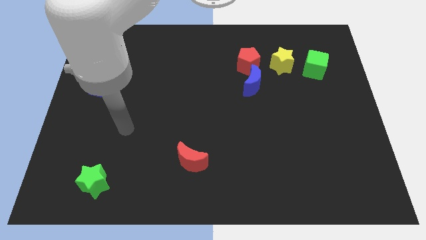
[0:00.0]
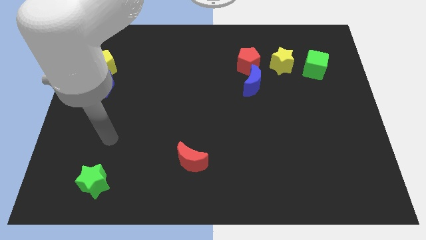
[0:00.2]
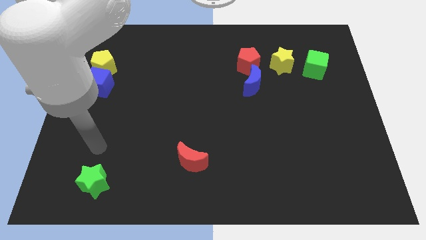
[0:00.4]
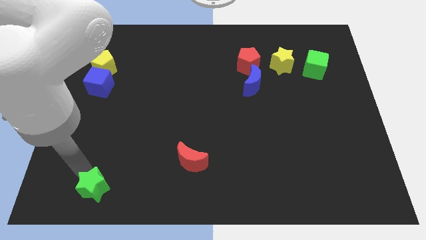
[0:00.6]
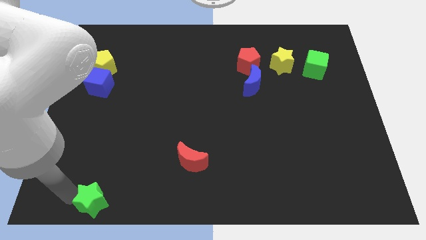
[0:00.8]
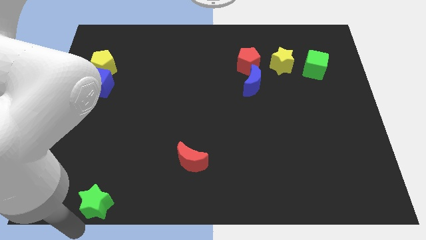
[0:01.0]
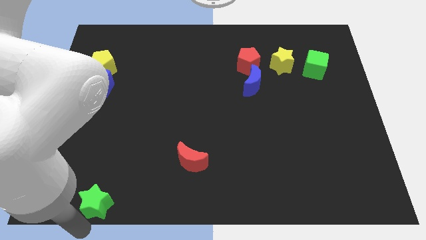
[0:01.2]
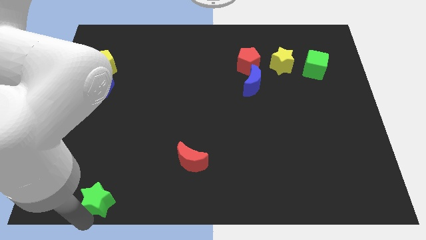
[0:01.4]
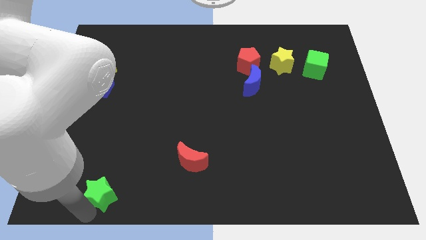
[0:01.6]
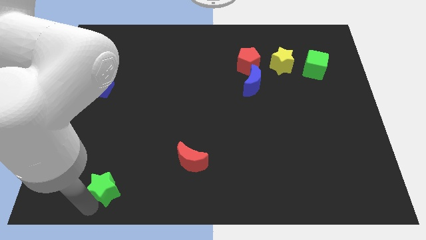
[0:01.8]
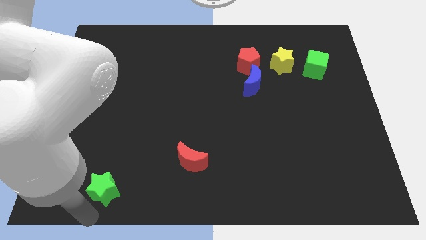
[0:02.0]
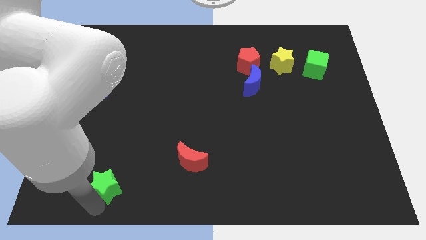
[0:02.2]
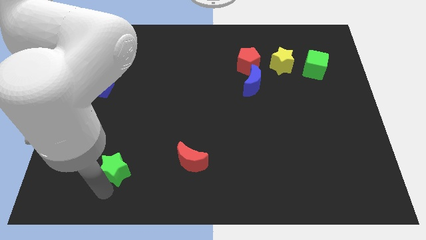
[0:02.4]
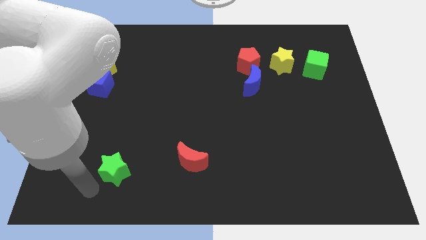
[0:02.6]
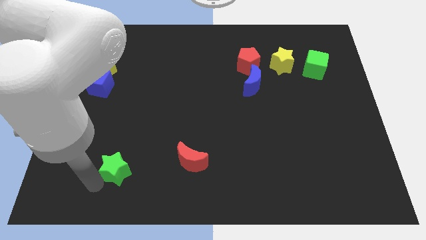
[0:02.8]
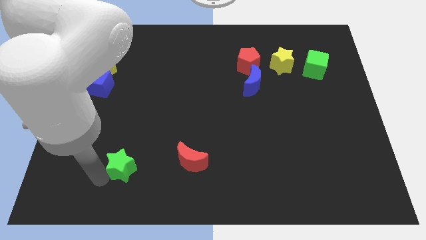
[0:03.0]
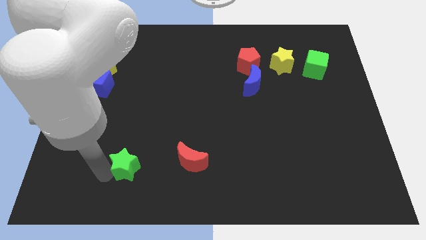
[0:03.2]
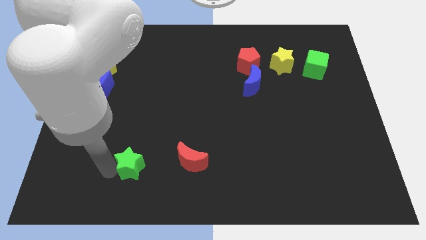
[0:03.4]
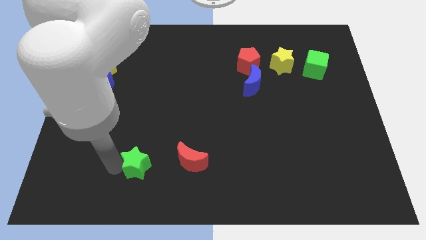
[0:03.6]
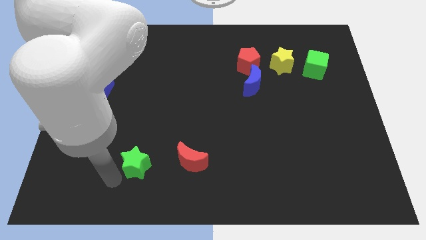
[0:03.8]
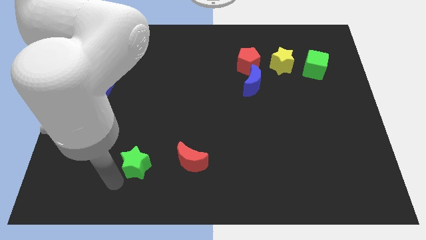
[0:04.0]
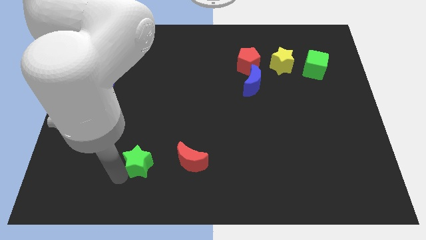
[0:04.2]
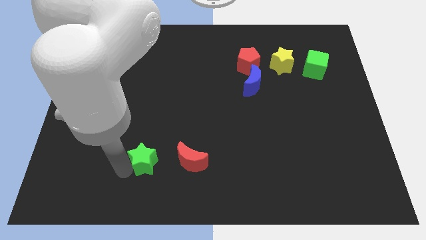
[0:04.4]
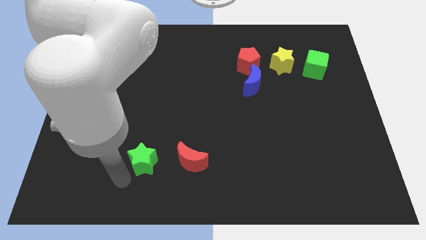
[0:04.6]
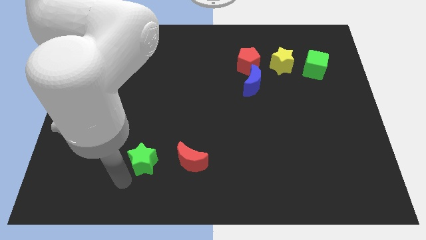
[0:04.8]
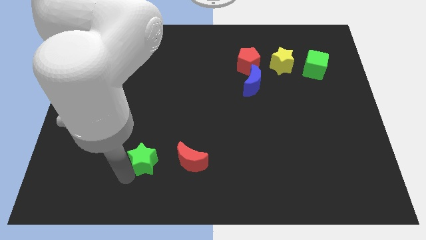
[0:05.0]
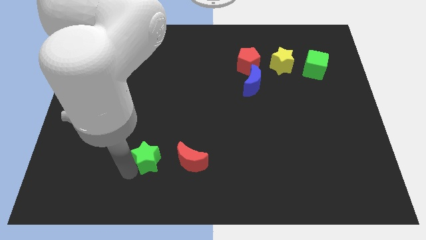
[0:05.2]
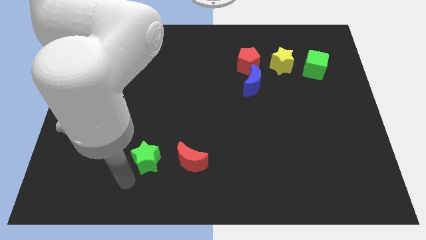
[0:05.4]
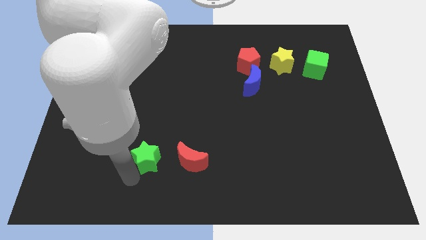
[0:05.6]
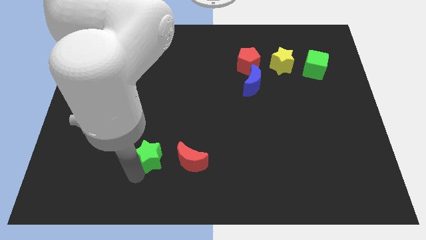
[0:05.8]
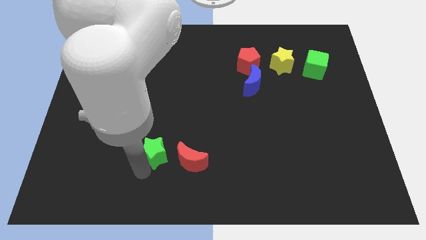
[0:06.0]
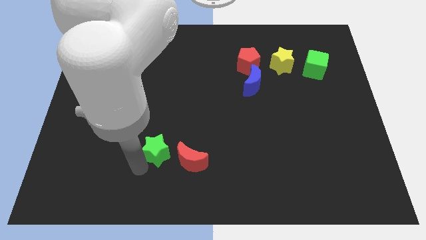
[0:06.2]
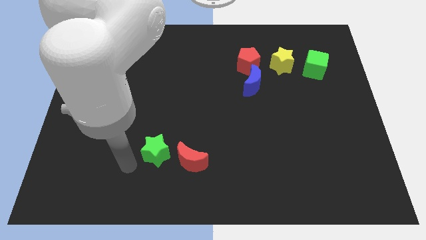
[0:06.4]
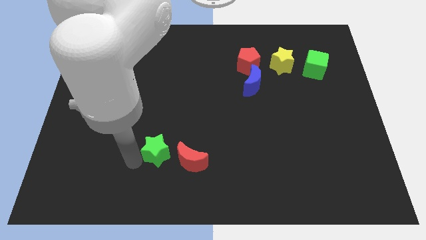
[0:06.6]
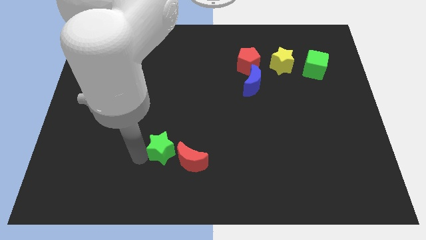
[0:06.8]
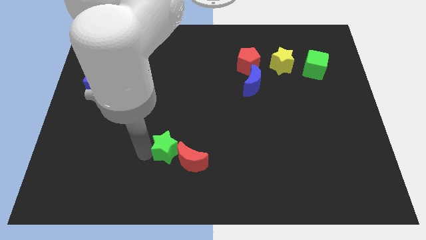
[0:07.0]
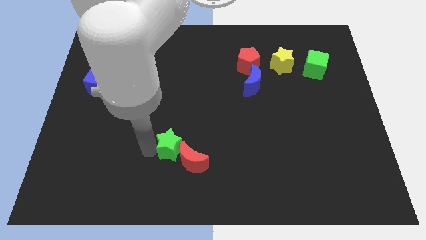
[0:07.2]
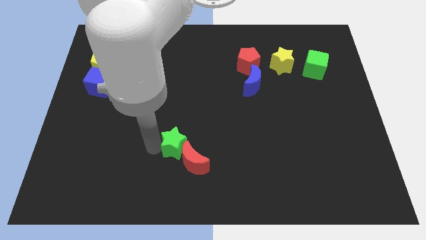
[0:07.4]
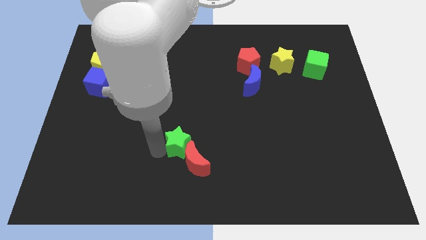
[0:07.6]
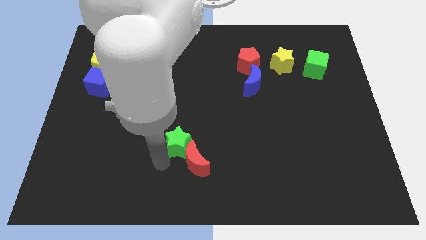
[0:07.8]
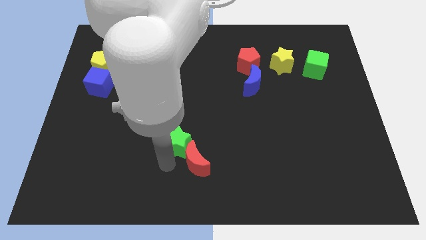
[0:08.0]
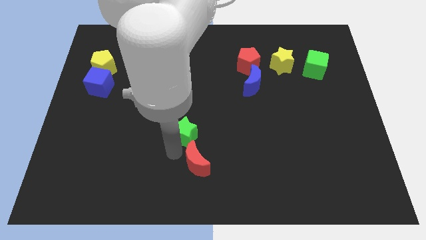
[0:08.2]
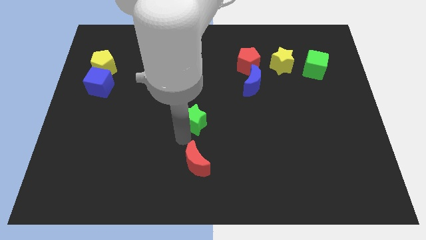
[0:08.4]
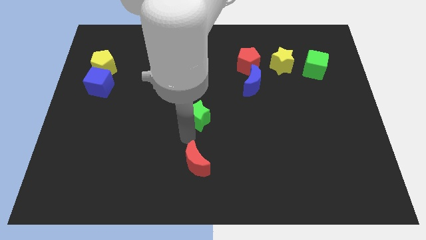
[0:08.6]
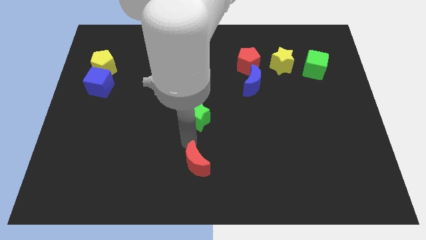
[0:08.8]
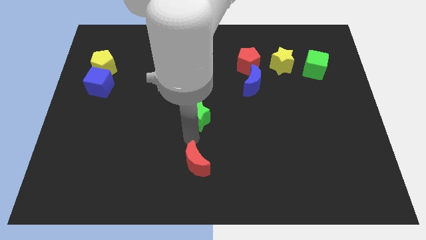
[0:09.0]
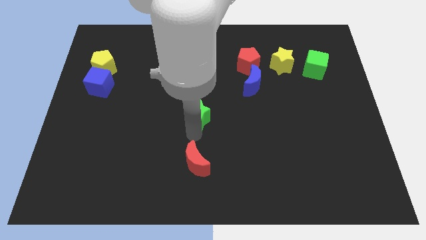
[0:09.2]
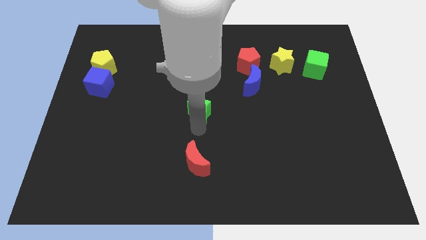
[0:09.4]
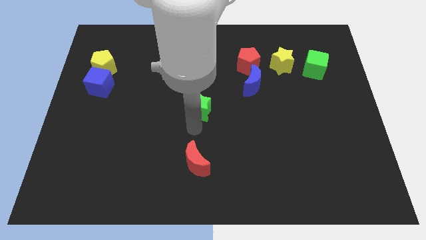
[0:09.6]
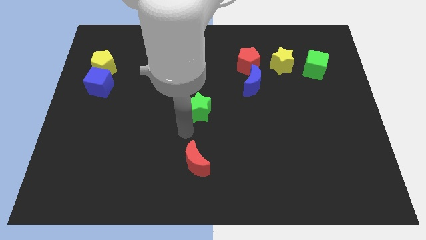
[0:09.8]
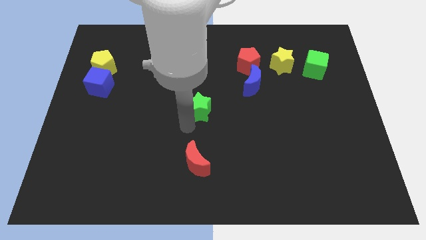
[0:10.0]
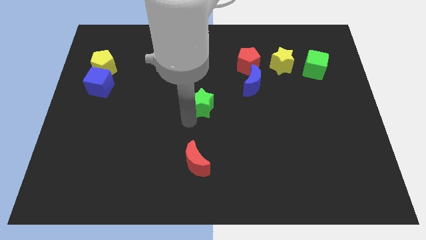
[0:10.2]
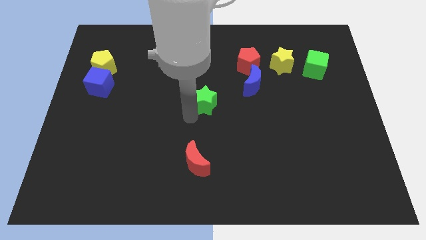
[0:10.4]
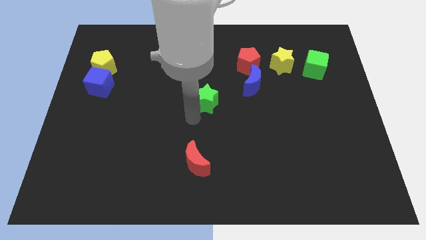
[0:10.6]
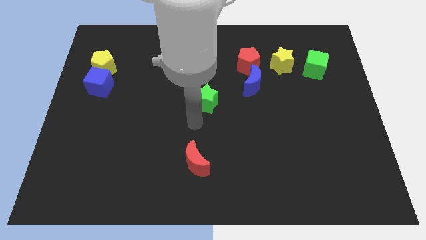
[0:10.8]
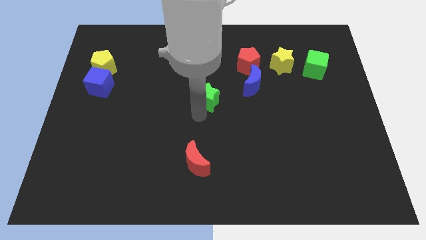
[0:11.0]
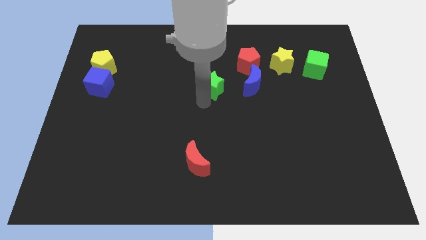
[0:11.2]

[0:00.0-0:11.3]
push the green star to the bottom left of the red pentagon

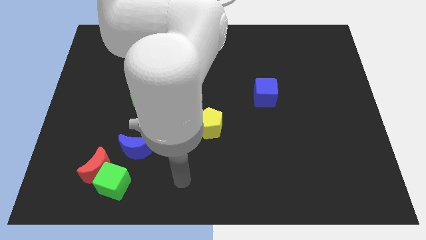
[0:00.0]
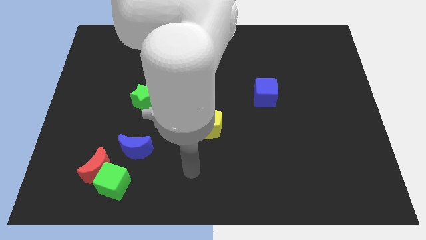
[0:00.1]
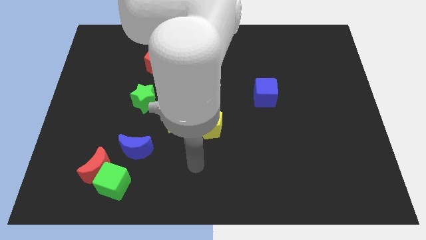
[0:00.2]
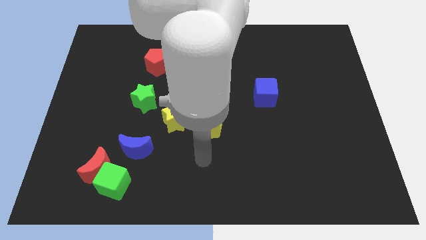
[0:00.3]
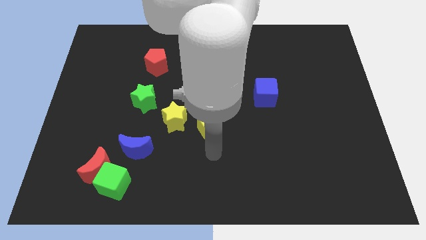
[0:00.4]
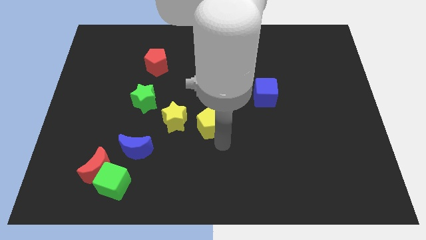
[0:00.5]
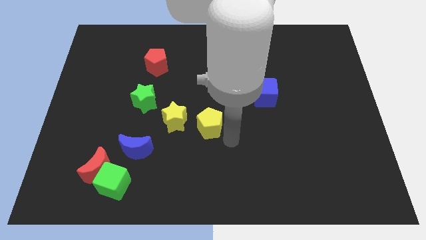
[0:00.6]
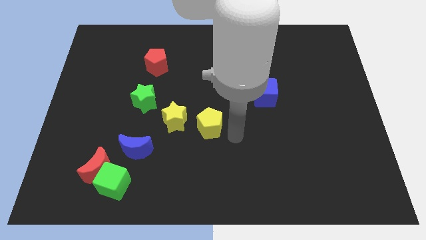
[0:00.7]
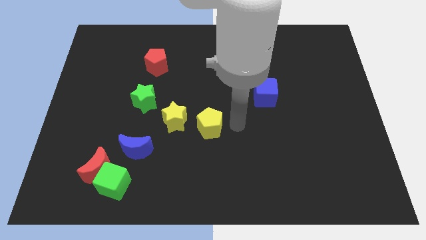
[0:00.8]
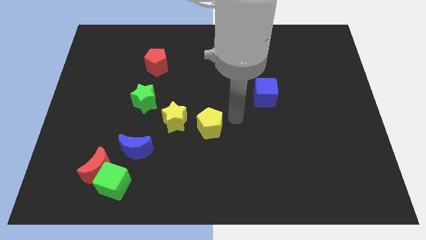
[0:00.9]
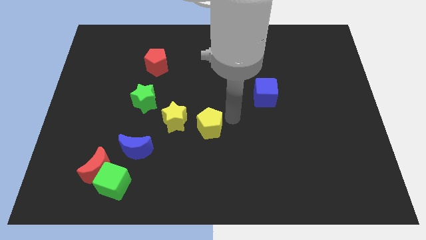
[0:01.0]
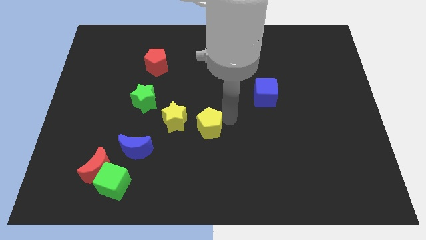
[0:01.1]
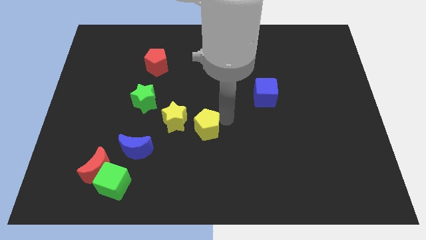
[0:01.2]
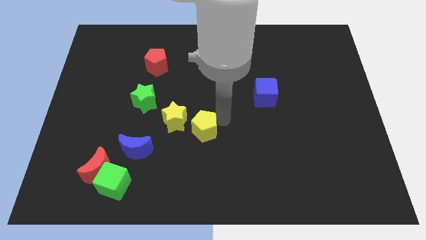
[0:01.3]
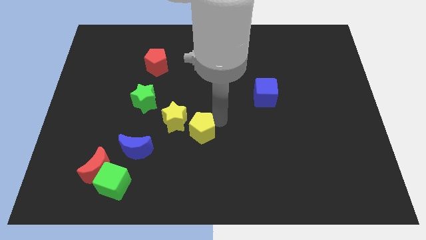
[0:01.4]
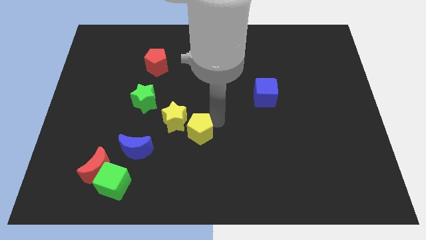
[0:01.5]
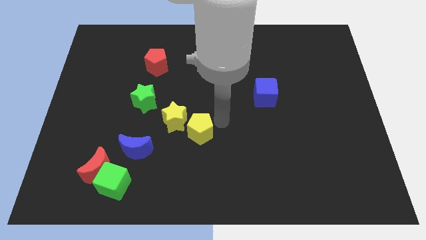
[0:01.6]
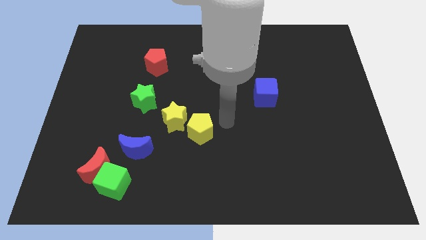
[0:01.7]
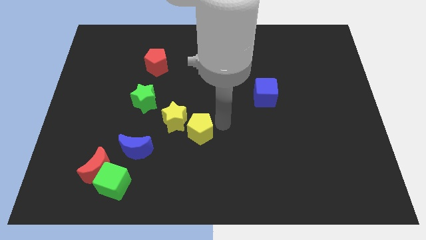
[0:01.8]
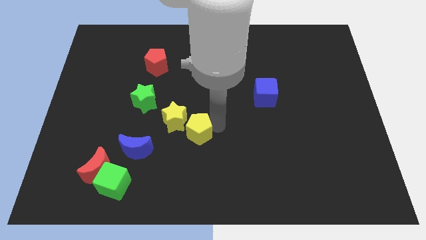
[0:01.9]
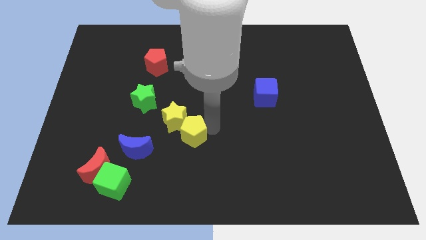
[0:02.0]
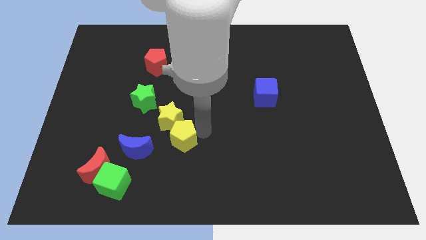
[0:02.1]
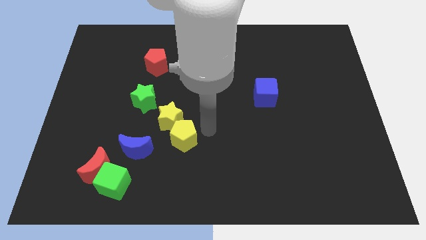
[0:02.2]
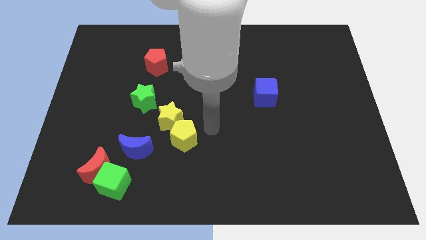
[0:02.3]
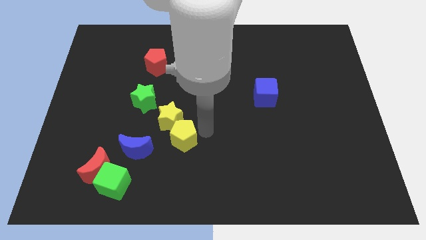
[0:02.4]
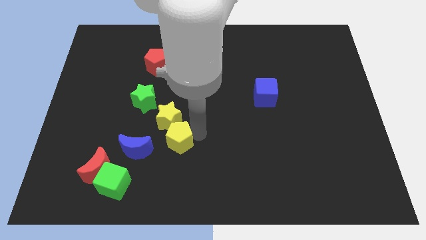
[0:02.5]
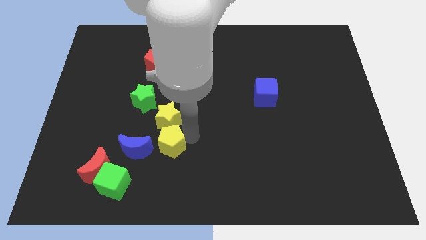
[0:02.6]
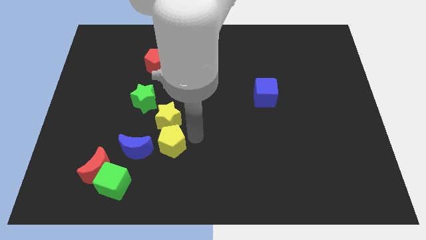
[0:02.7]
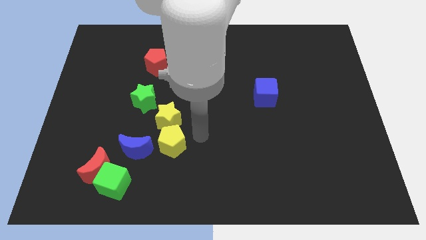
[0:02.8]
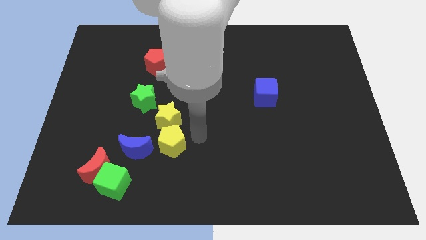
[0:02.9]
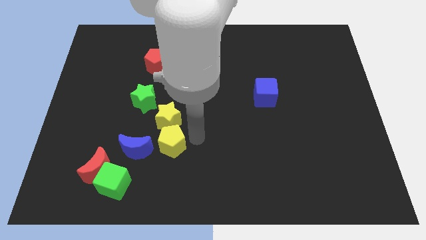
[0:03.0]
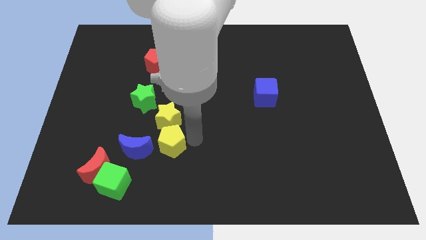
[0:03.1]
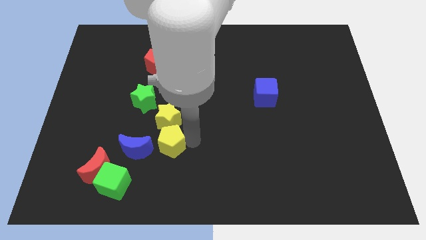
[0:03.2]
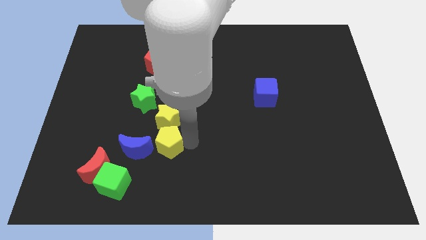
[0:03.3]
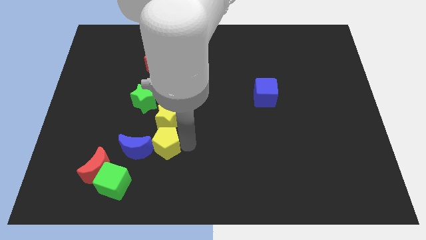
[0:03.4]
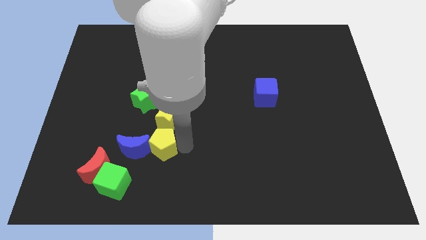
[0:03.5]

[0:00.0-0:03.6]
push the yellow pentagon to the top right side of the green cube
